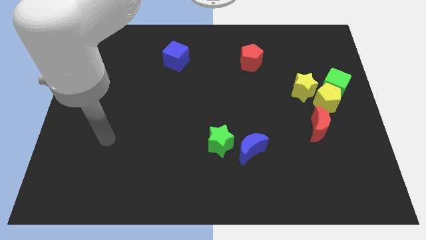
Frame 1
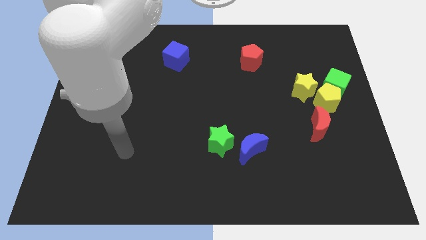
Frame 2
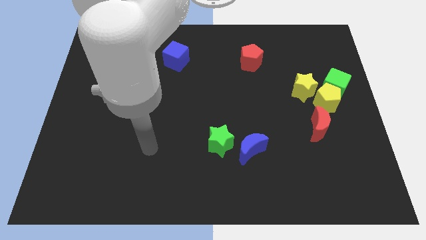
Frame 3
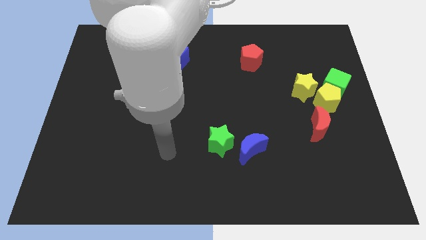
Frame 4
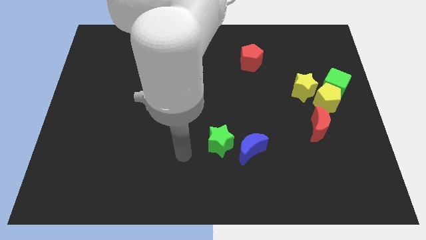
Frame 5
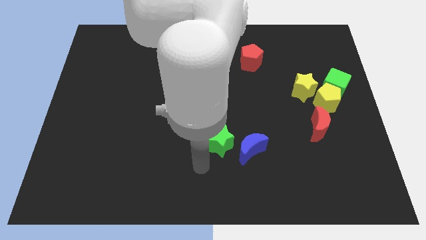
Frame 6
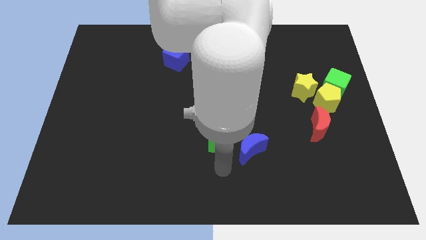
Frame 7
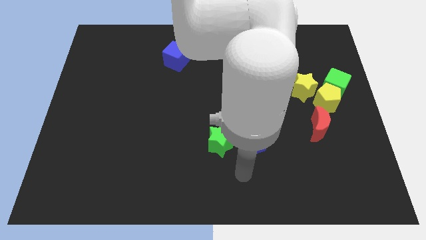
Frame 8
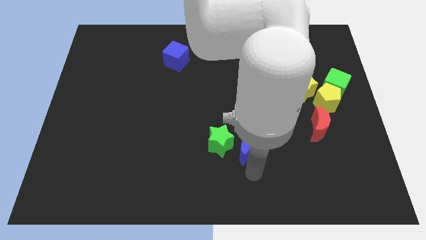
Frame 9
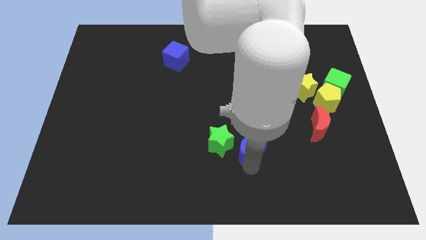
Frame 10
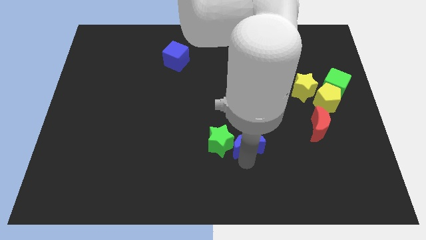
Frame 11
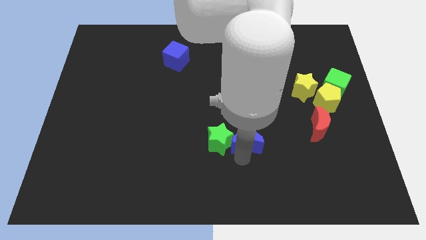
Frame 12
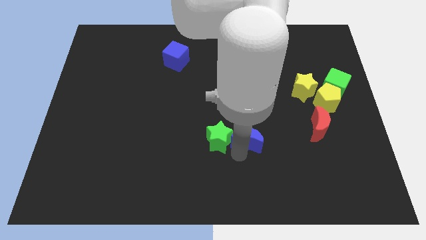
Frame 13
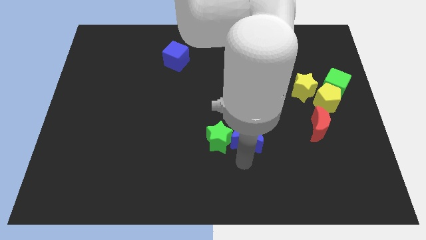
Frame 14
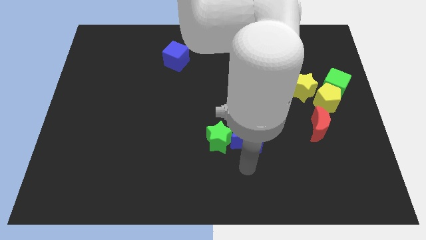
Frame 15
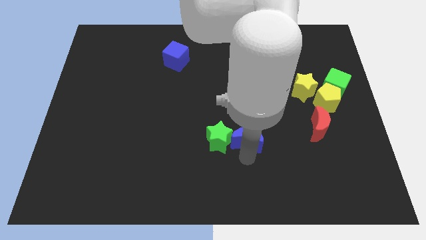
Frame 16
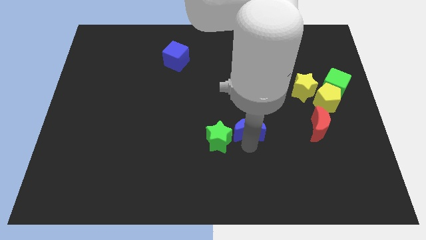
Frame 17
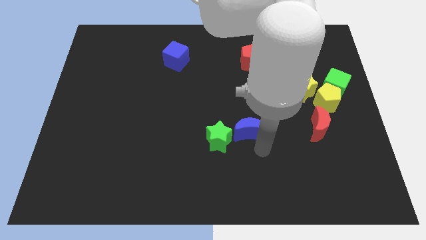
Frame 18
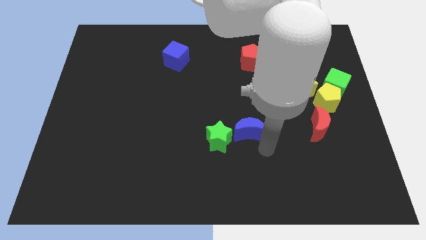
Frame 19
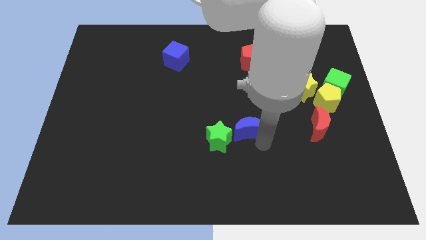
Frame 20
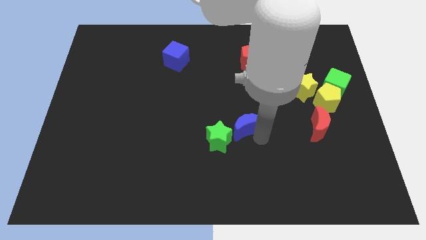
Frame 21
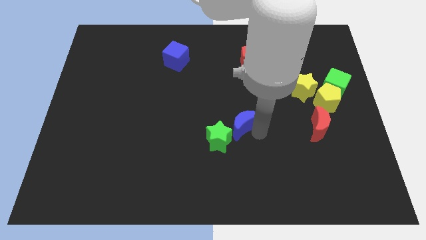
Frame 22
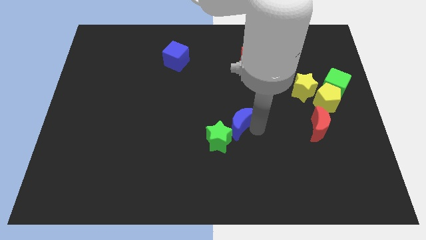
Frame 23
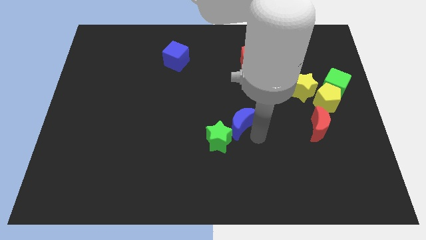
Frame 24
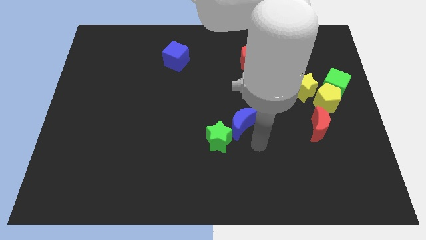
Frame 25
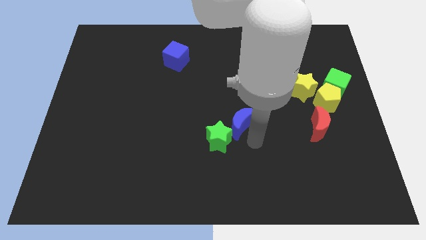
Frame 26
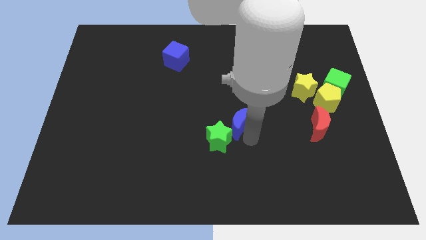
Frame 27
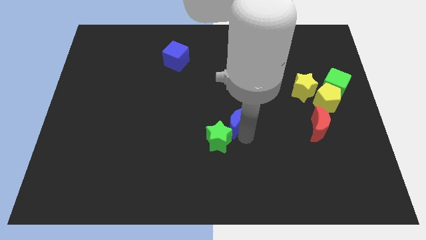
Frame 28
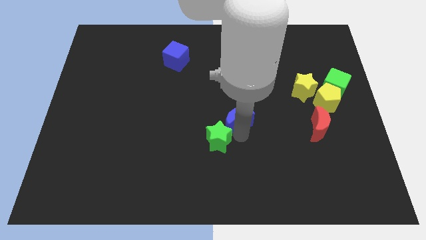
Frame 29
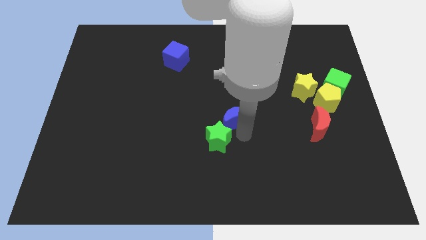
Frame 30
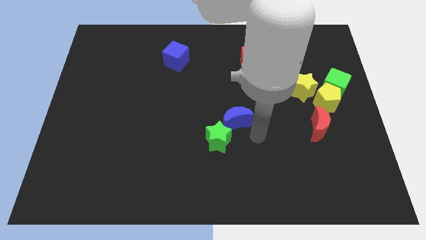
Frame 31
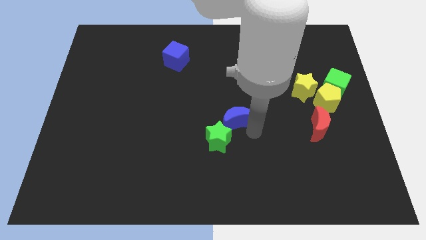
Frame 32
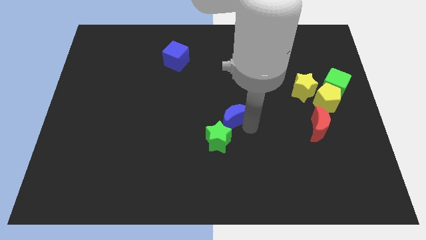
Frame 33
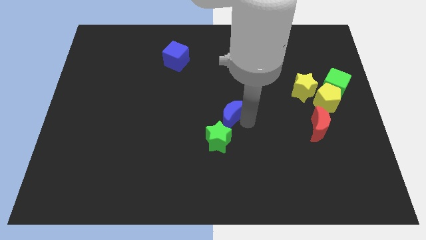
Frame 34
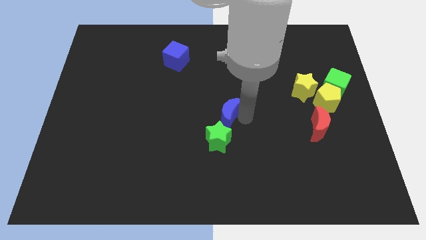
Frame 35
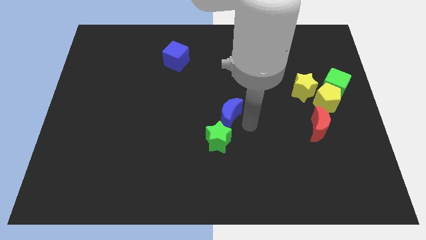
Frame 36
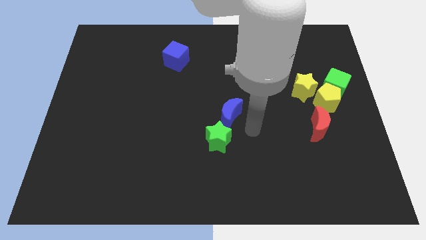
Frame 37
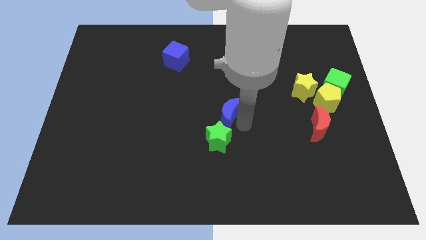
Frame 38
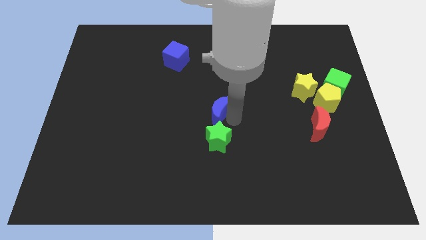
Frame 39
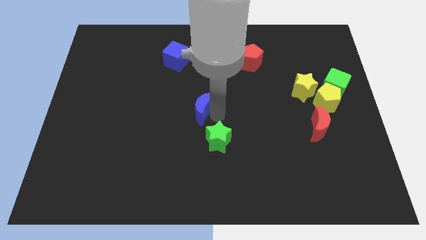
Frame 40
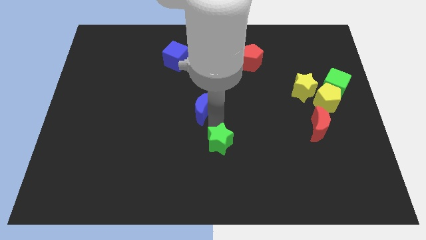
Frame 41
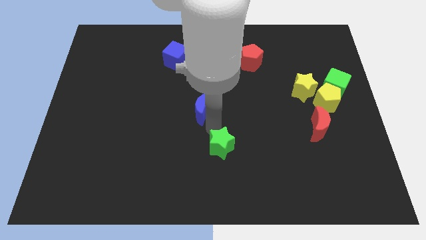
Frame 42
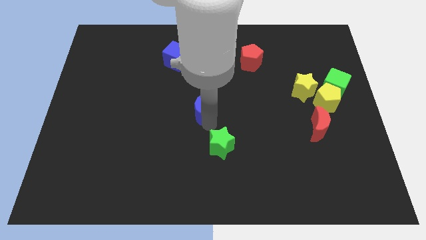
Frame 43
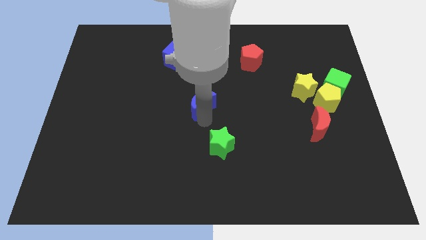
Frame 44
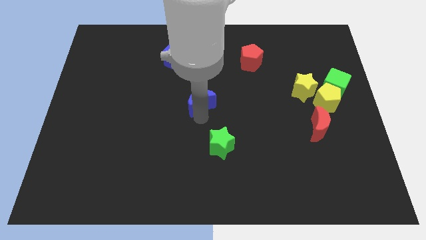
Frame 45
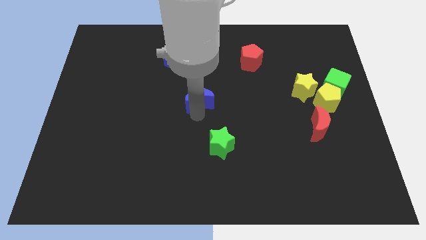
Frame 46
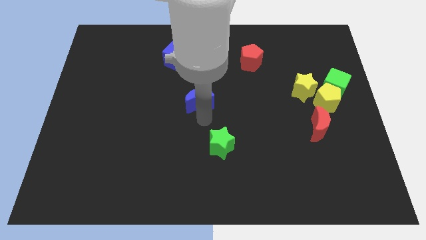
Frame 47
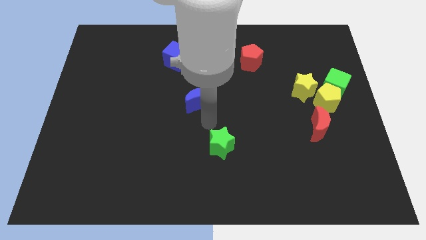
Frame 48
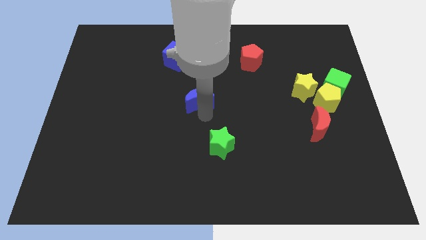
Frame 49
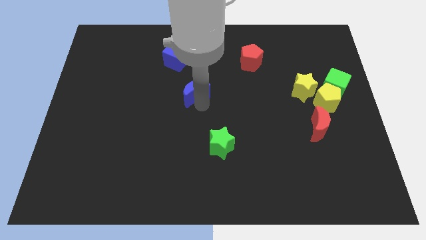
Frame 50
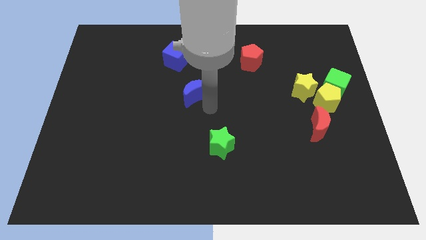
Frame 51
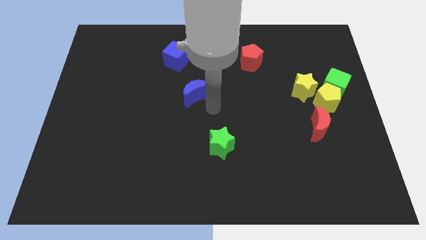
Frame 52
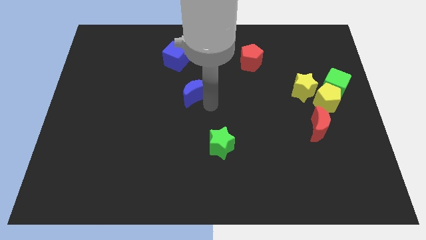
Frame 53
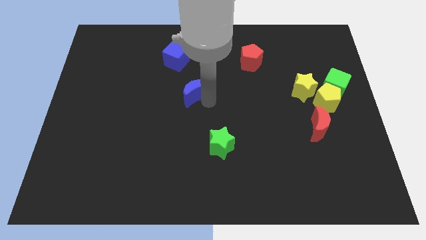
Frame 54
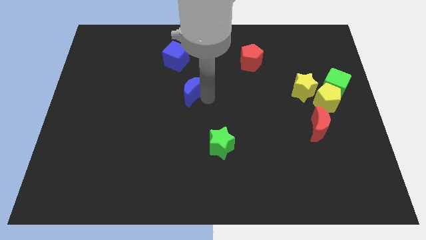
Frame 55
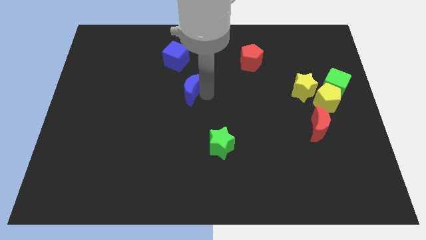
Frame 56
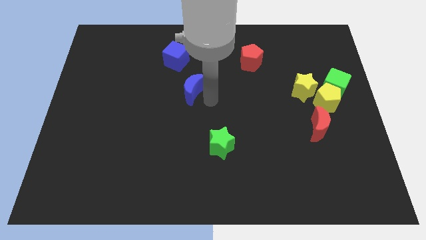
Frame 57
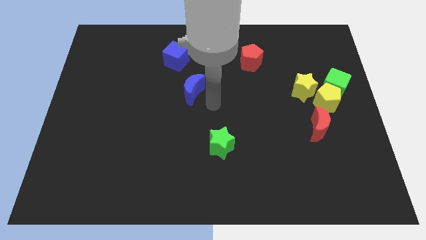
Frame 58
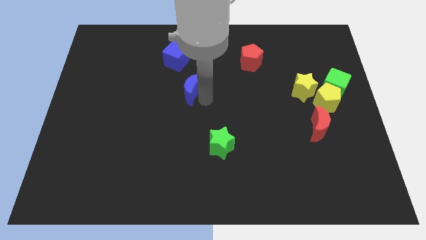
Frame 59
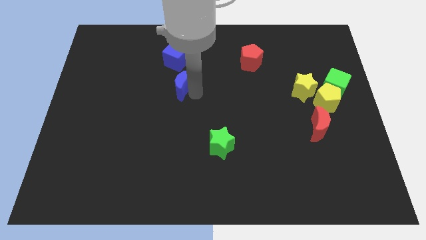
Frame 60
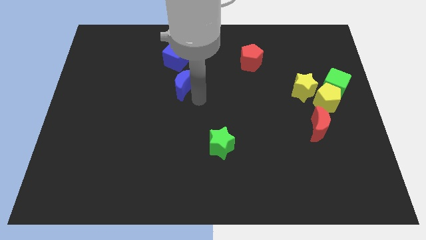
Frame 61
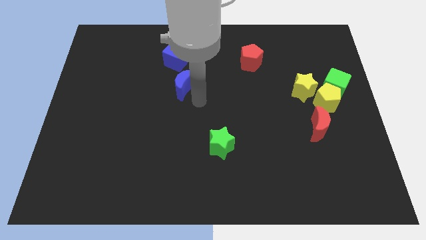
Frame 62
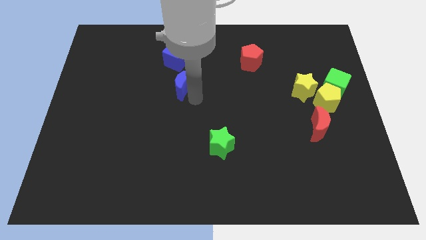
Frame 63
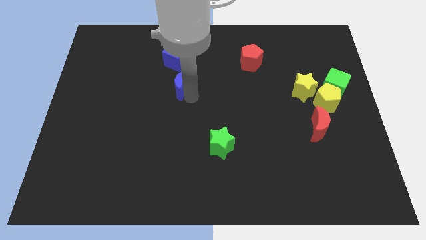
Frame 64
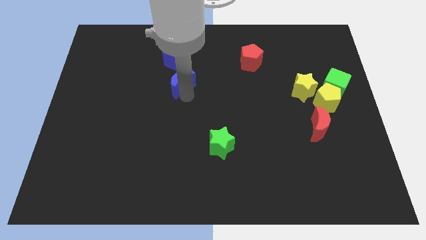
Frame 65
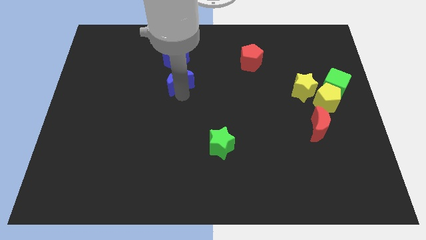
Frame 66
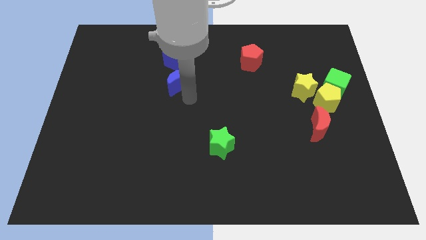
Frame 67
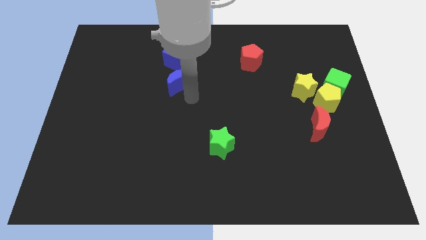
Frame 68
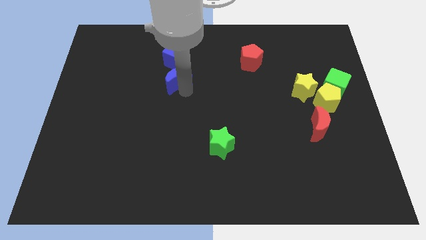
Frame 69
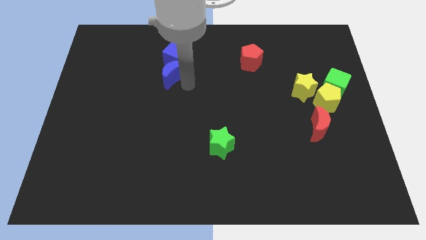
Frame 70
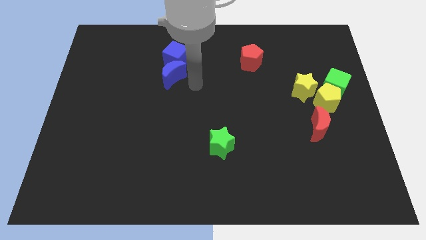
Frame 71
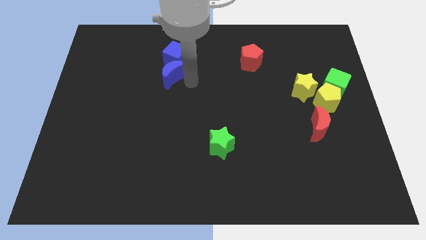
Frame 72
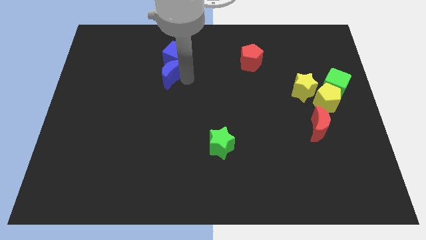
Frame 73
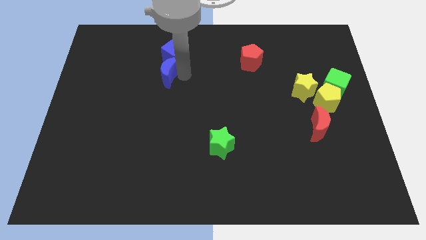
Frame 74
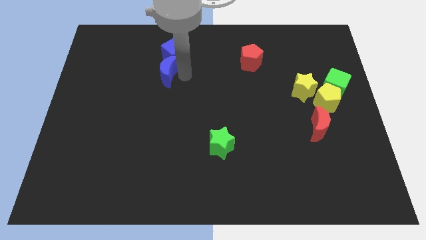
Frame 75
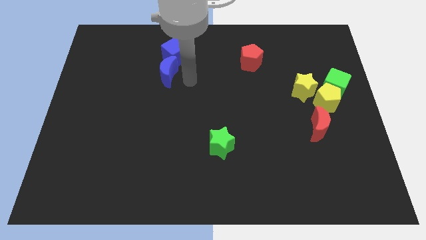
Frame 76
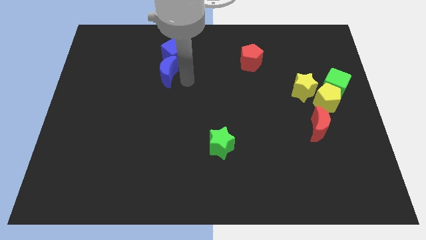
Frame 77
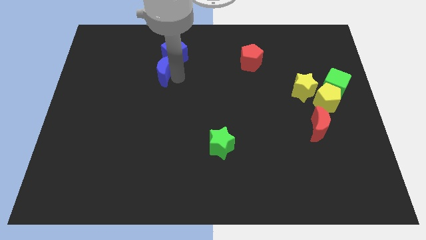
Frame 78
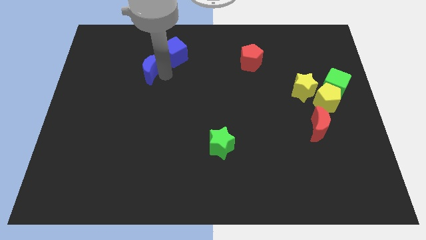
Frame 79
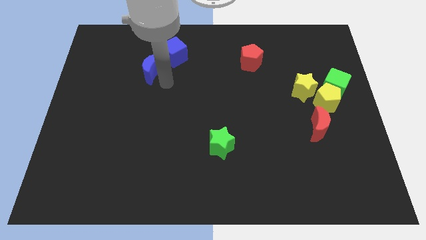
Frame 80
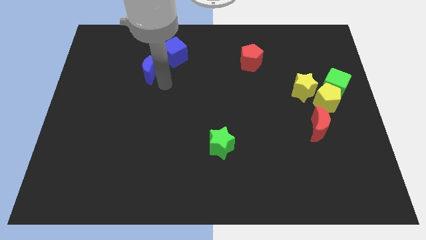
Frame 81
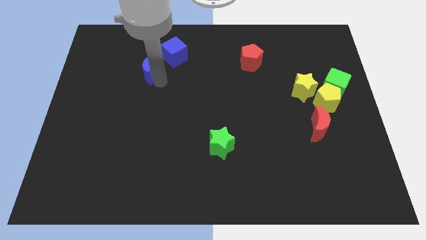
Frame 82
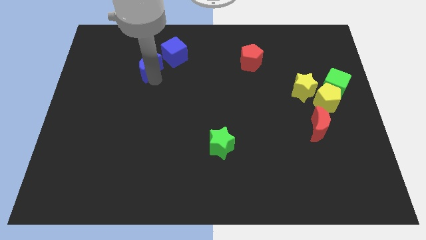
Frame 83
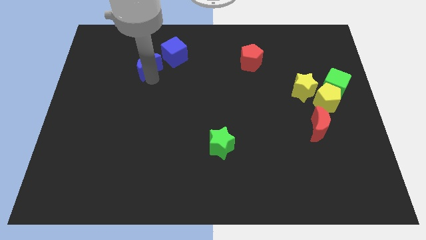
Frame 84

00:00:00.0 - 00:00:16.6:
push the blue moon to the left of the blue cube
